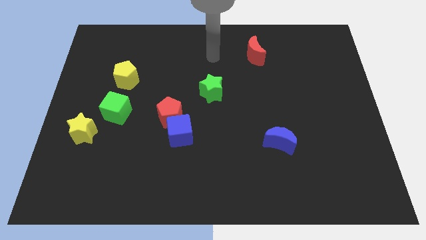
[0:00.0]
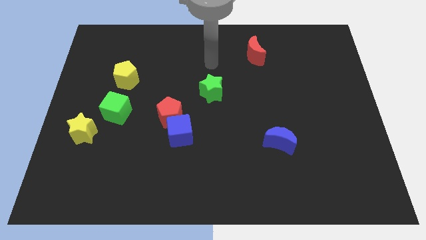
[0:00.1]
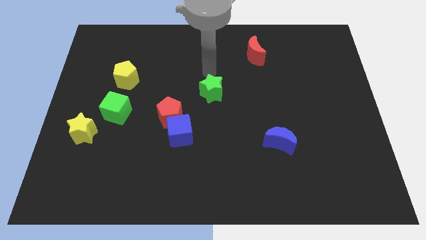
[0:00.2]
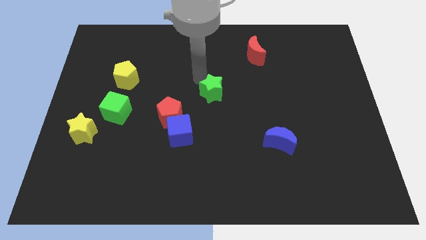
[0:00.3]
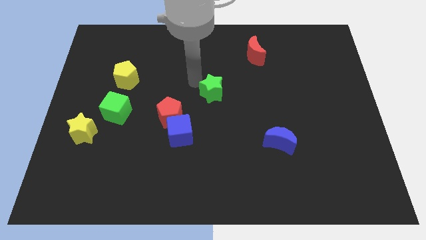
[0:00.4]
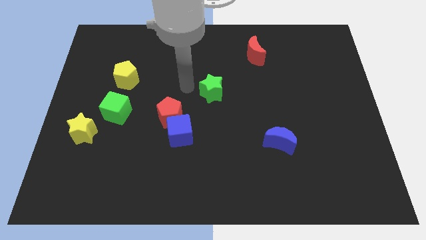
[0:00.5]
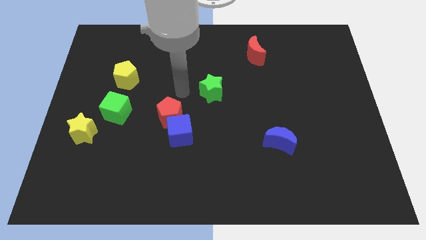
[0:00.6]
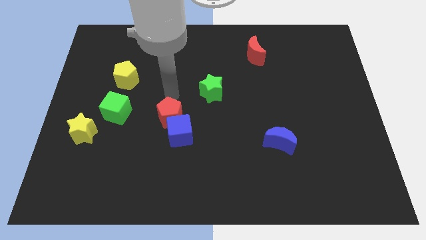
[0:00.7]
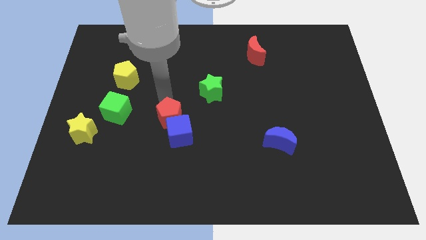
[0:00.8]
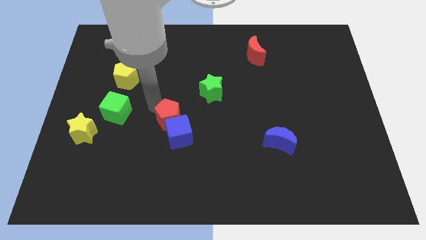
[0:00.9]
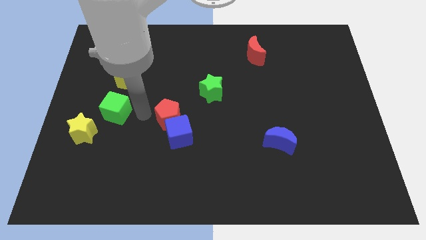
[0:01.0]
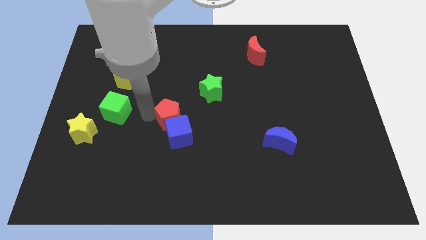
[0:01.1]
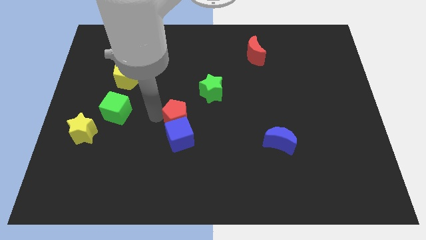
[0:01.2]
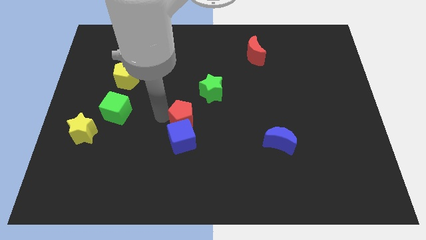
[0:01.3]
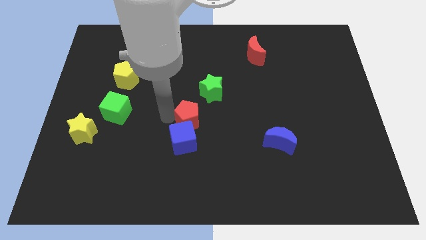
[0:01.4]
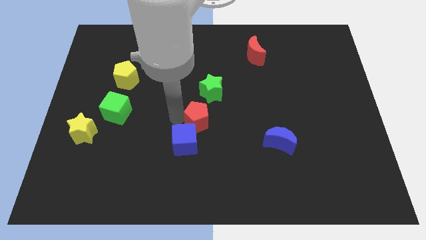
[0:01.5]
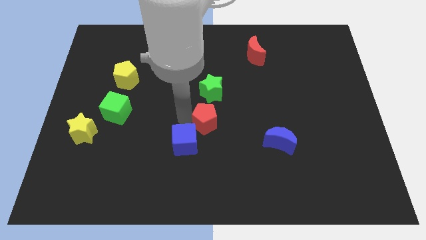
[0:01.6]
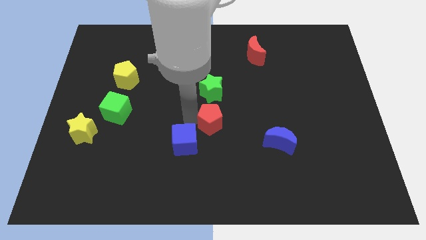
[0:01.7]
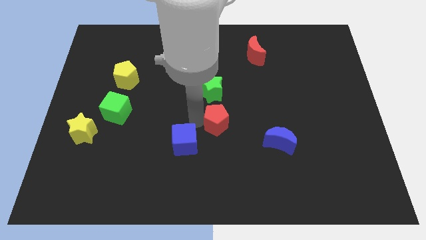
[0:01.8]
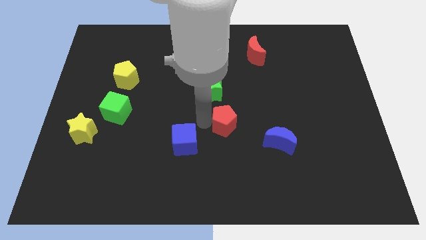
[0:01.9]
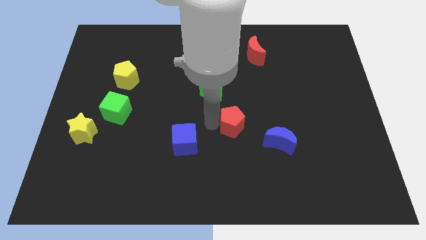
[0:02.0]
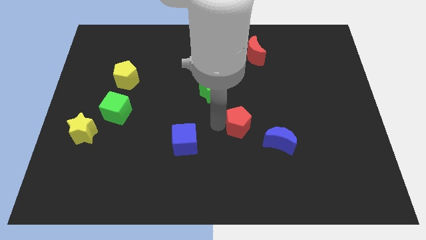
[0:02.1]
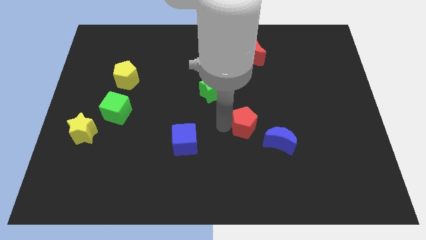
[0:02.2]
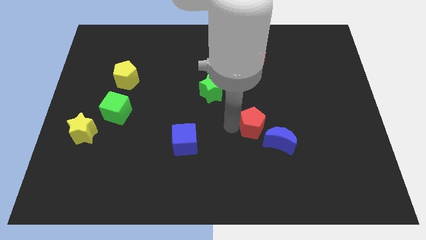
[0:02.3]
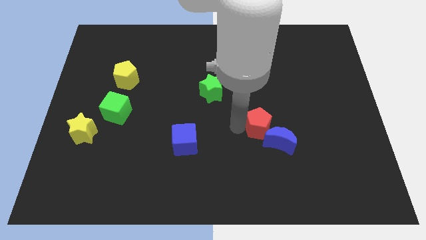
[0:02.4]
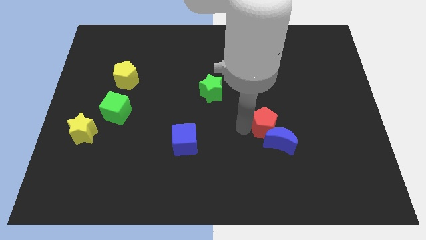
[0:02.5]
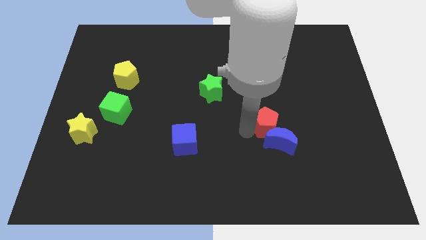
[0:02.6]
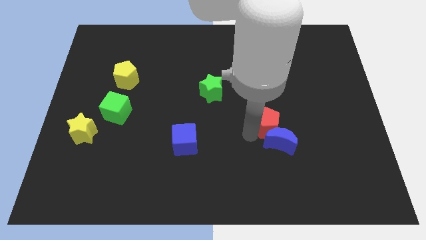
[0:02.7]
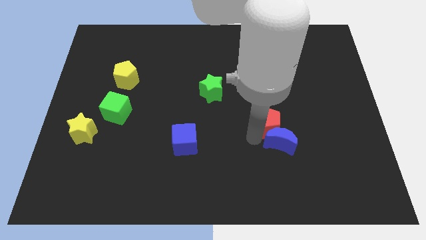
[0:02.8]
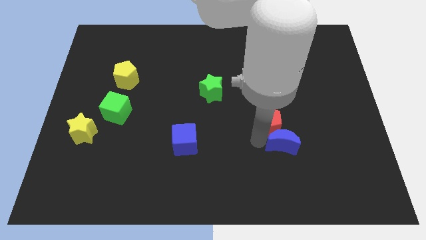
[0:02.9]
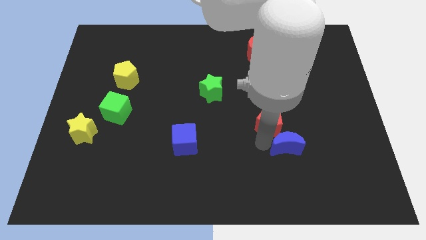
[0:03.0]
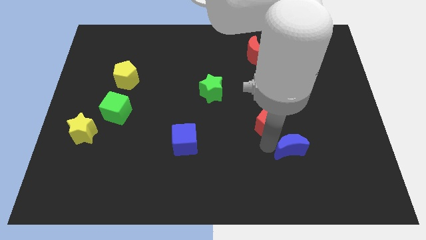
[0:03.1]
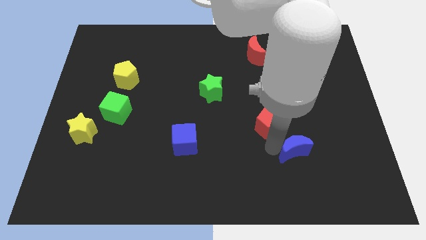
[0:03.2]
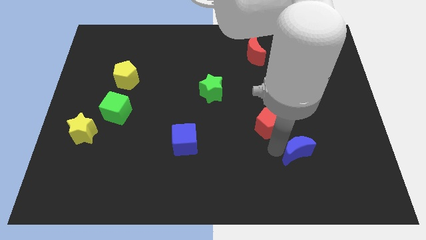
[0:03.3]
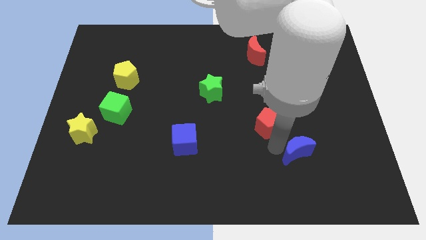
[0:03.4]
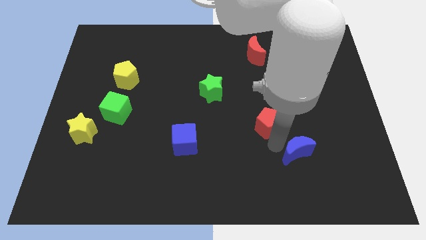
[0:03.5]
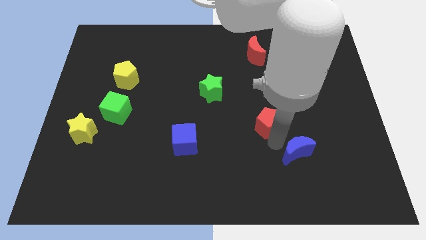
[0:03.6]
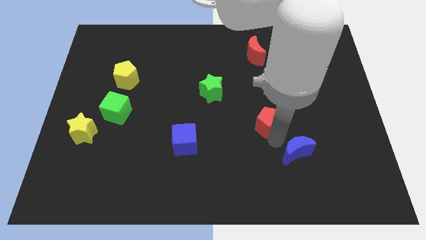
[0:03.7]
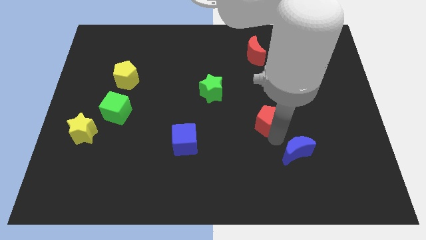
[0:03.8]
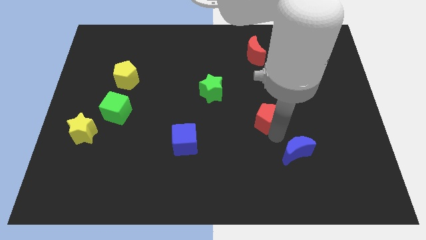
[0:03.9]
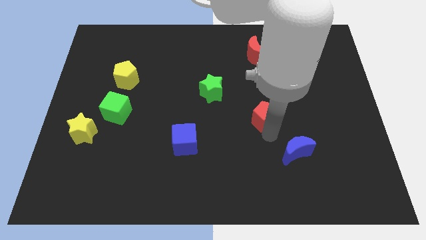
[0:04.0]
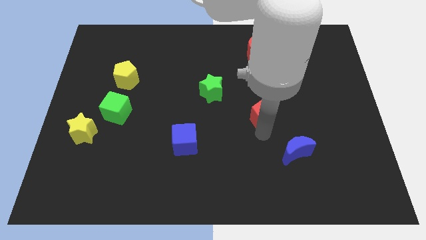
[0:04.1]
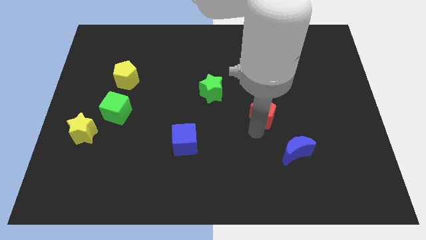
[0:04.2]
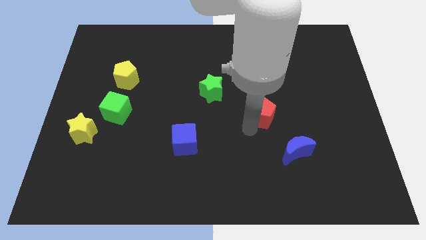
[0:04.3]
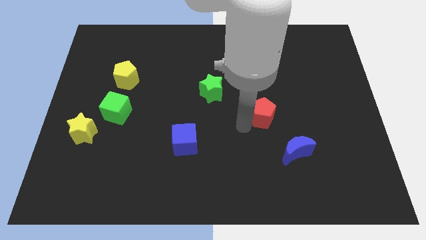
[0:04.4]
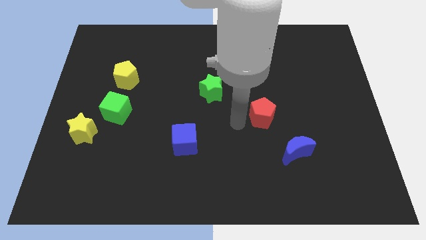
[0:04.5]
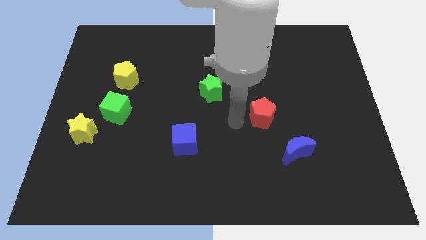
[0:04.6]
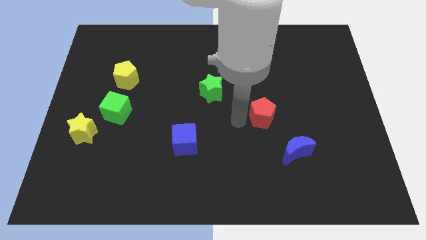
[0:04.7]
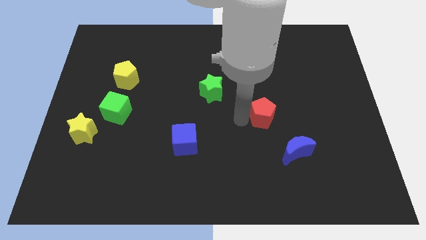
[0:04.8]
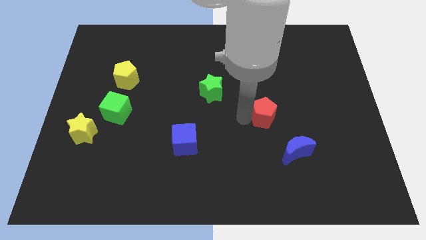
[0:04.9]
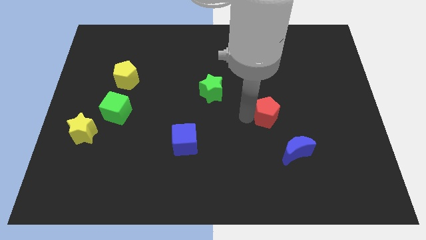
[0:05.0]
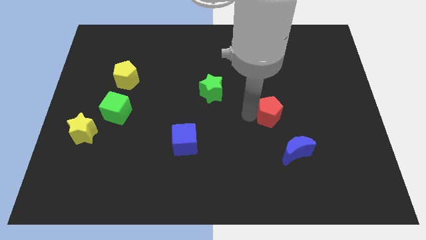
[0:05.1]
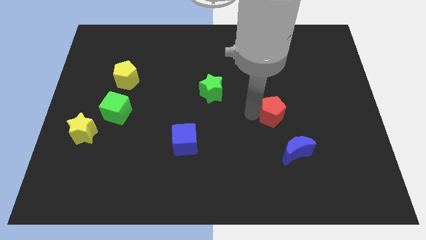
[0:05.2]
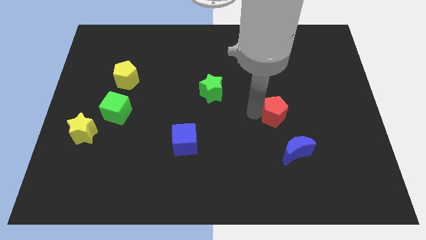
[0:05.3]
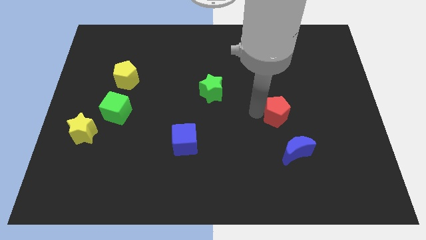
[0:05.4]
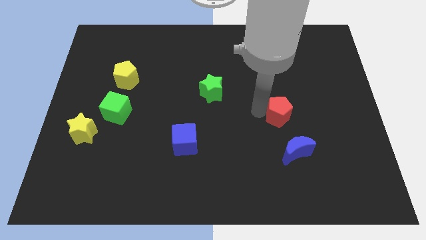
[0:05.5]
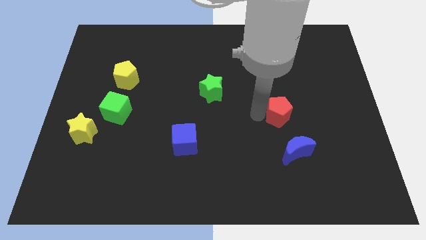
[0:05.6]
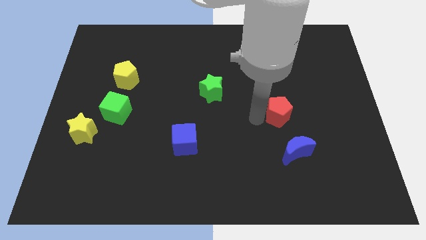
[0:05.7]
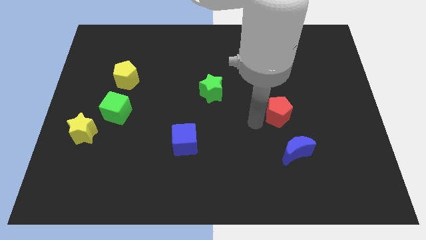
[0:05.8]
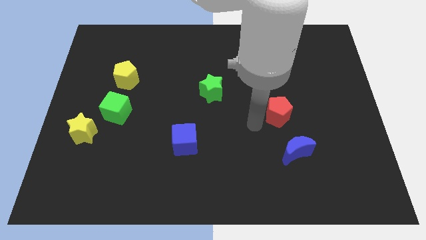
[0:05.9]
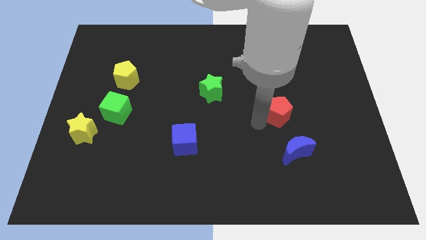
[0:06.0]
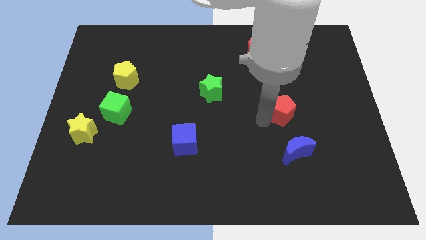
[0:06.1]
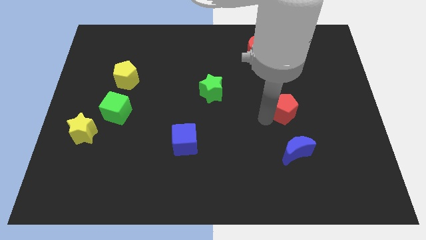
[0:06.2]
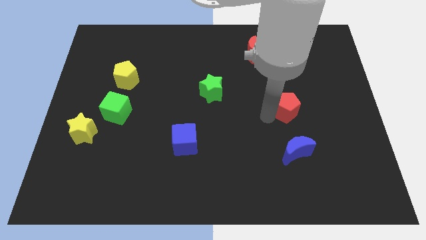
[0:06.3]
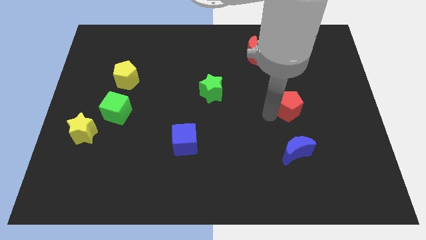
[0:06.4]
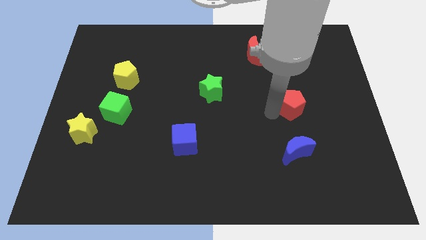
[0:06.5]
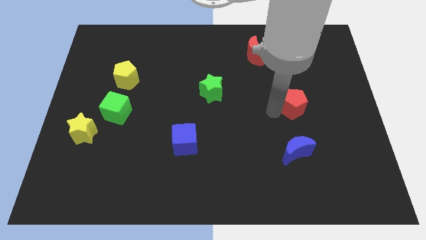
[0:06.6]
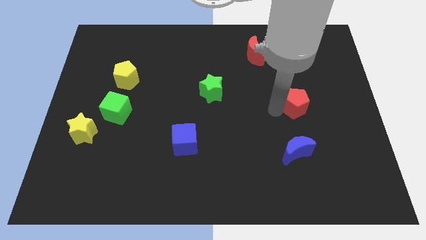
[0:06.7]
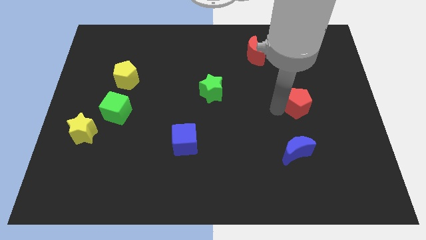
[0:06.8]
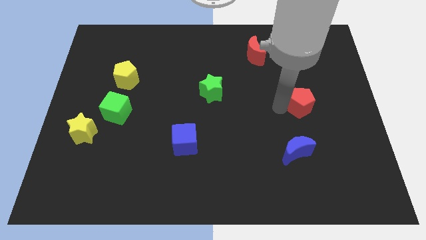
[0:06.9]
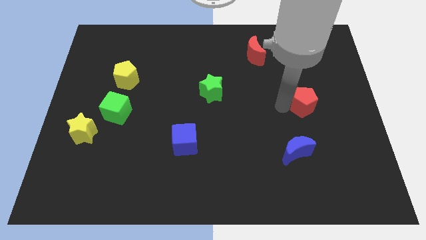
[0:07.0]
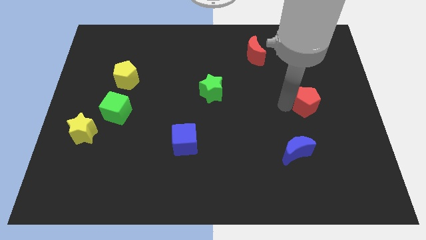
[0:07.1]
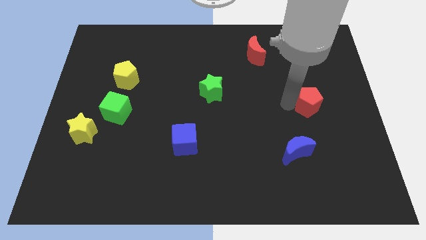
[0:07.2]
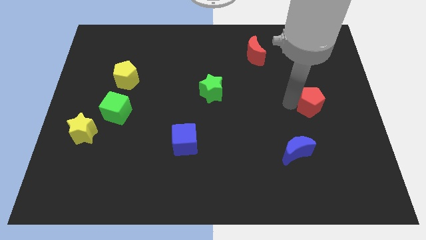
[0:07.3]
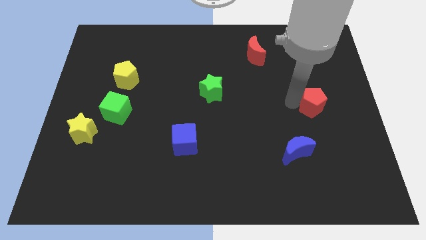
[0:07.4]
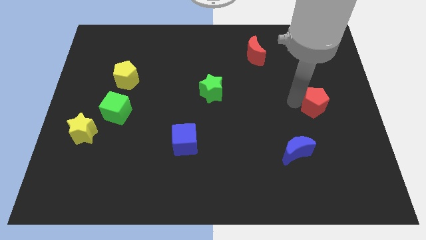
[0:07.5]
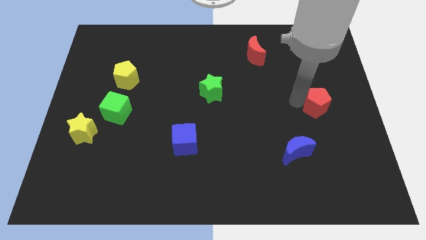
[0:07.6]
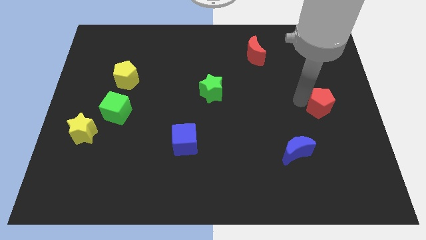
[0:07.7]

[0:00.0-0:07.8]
push the red pentagon to the center right
